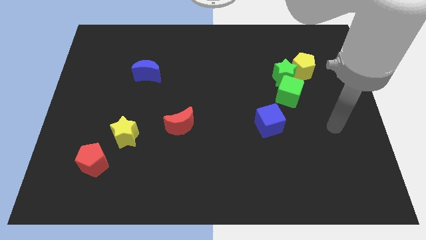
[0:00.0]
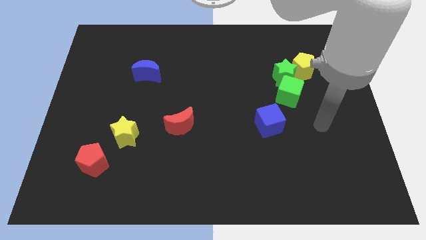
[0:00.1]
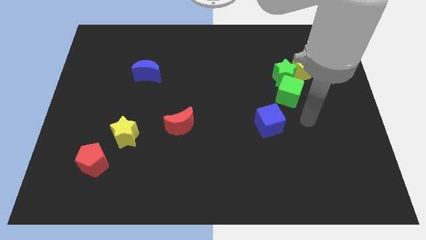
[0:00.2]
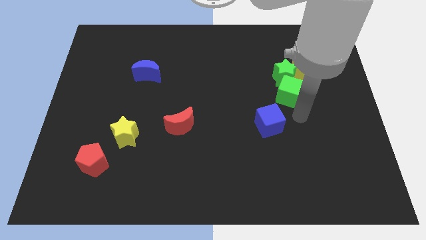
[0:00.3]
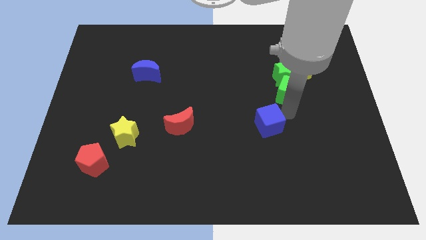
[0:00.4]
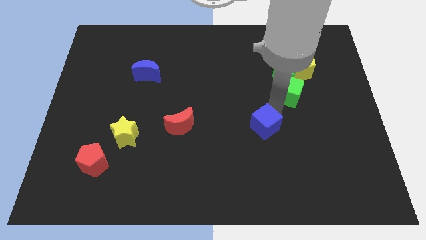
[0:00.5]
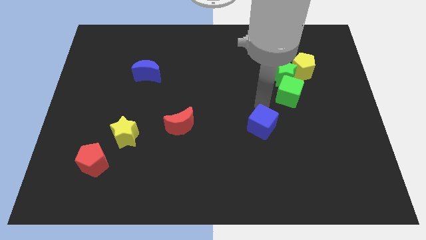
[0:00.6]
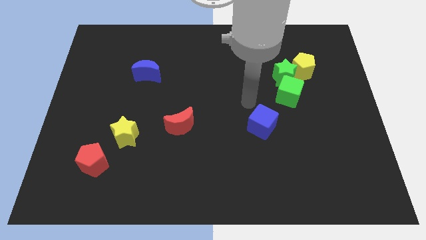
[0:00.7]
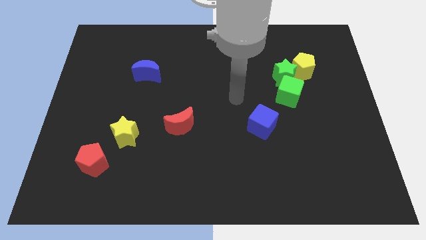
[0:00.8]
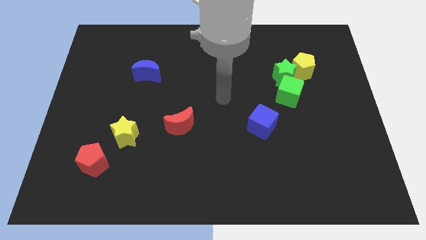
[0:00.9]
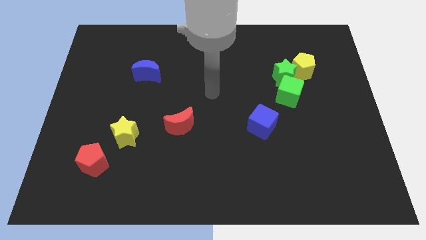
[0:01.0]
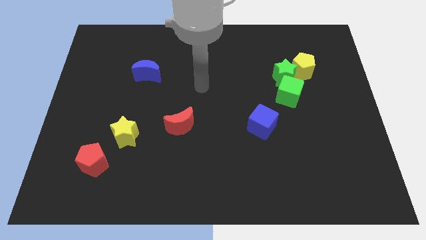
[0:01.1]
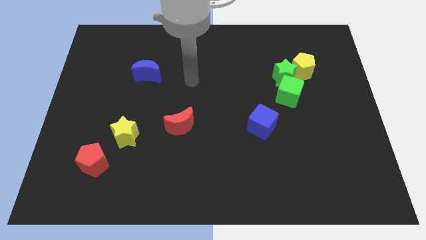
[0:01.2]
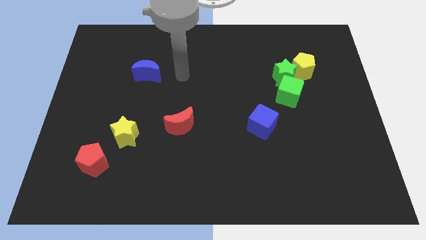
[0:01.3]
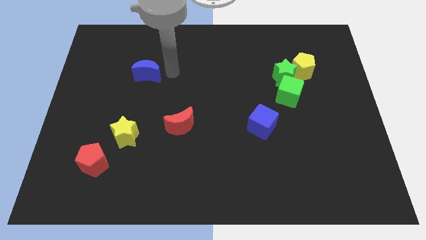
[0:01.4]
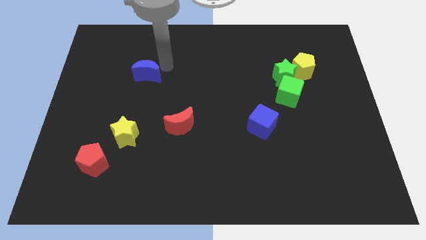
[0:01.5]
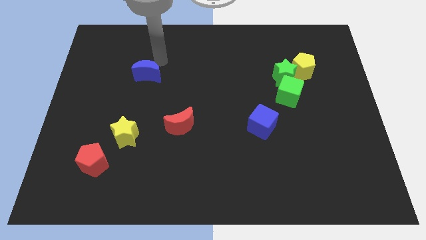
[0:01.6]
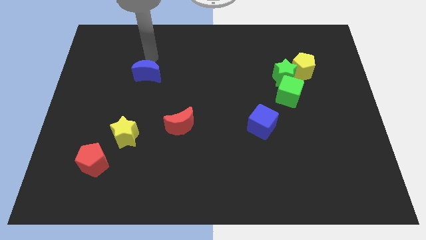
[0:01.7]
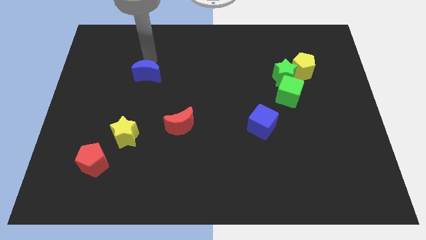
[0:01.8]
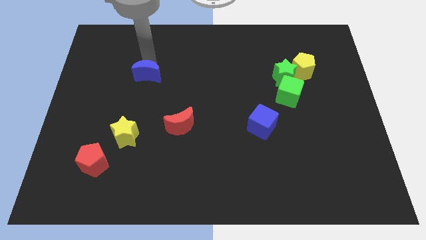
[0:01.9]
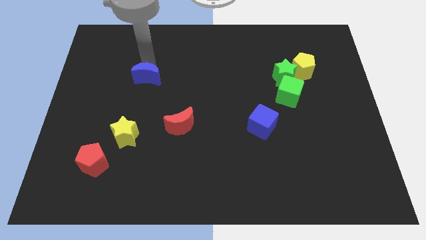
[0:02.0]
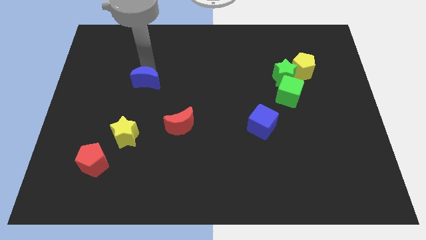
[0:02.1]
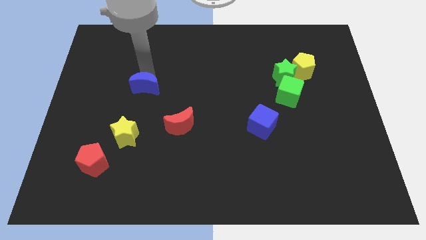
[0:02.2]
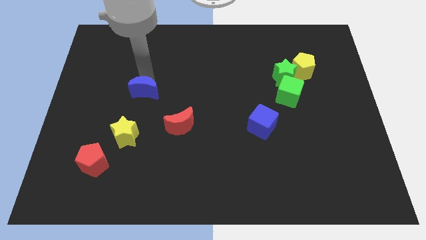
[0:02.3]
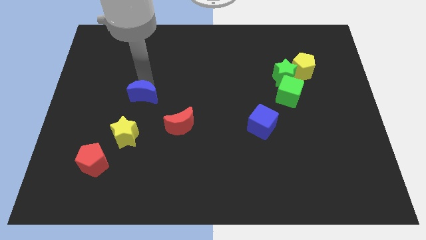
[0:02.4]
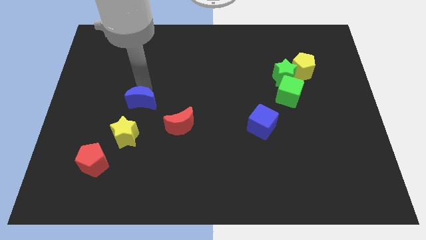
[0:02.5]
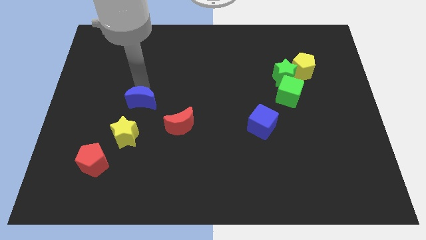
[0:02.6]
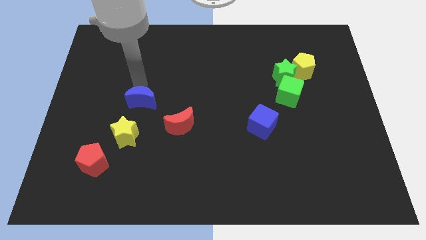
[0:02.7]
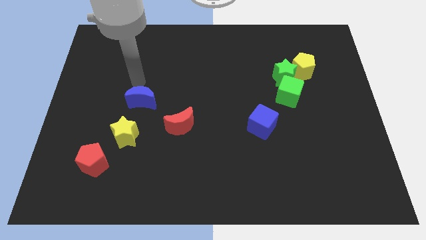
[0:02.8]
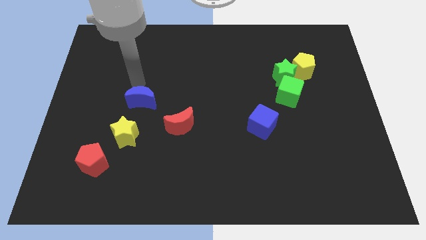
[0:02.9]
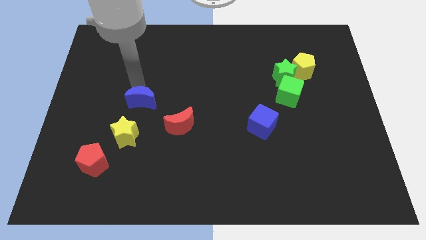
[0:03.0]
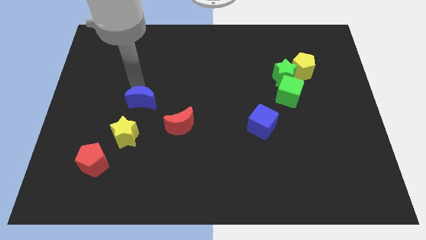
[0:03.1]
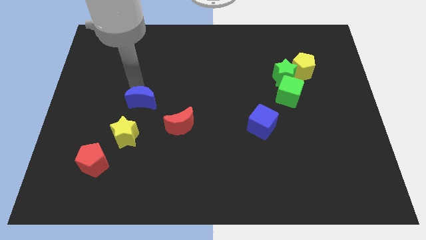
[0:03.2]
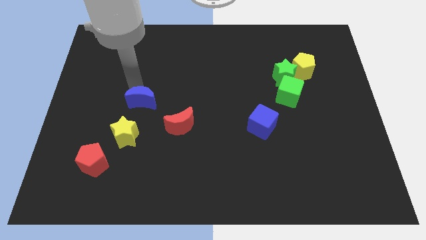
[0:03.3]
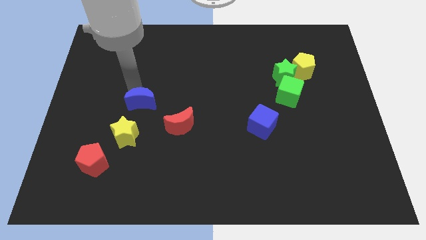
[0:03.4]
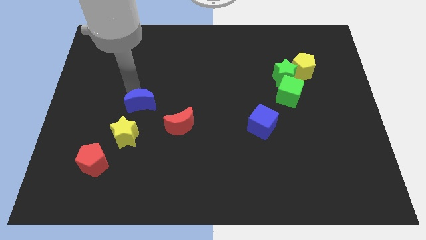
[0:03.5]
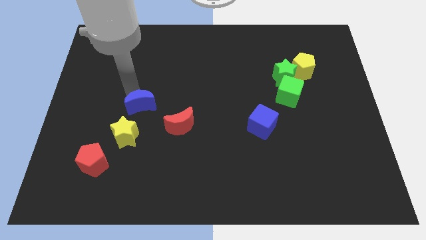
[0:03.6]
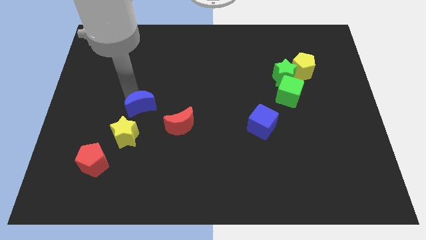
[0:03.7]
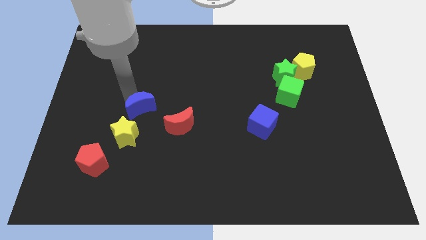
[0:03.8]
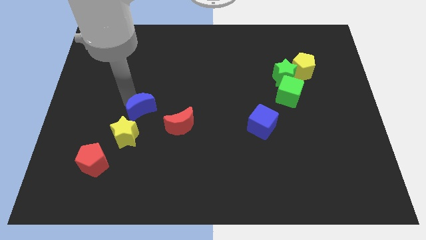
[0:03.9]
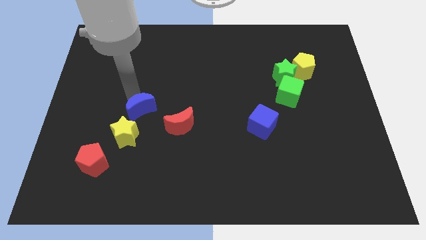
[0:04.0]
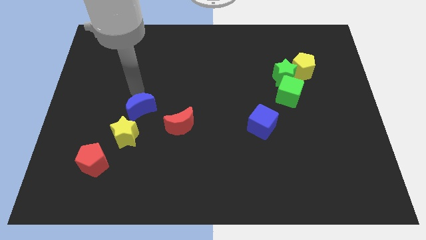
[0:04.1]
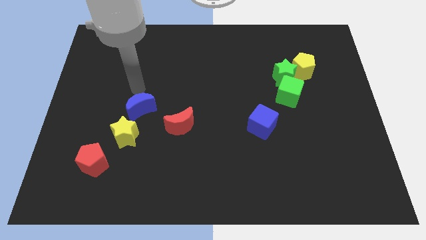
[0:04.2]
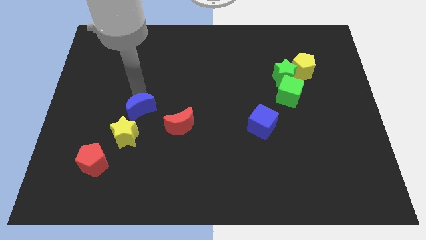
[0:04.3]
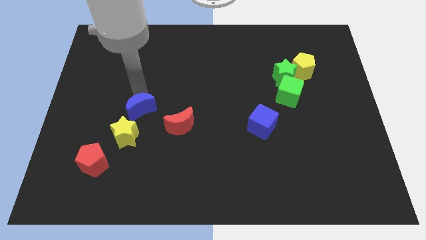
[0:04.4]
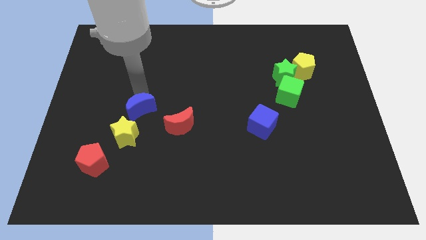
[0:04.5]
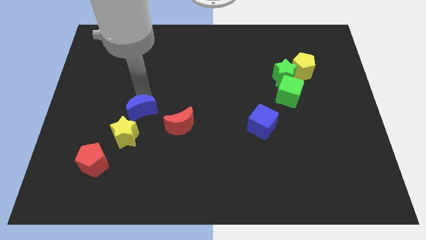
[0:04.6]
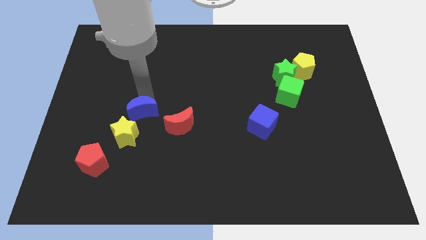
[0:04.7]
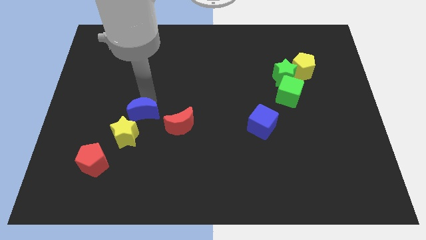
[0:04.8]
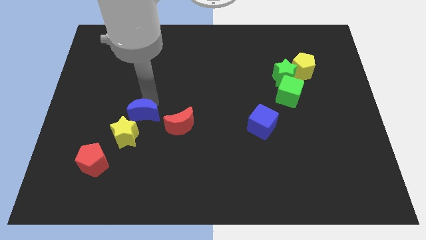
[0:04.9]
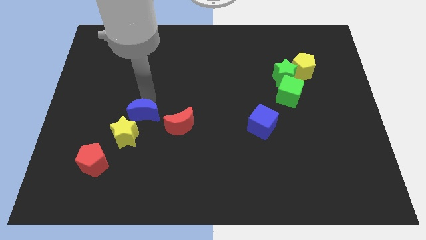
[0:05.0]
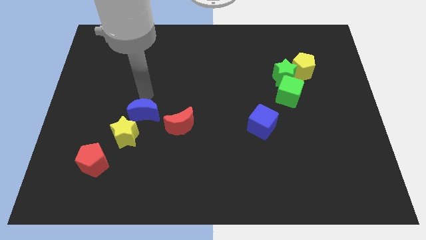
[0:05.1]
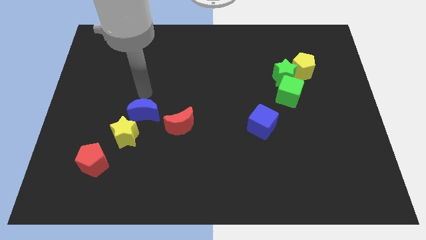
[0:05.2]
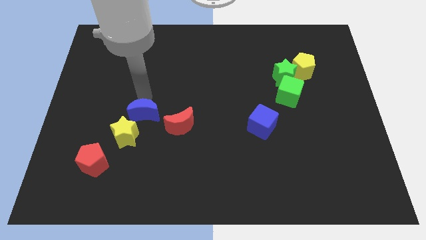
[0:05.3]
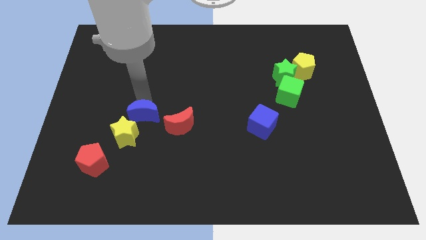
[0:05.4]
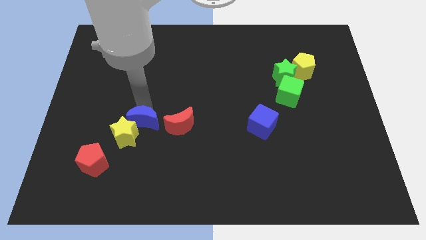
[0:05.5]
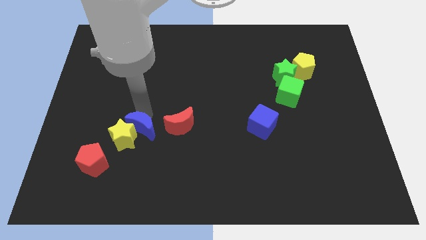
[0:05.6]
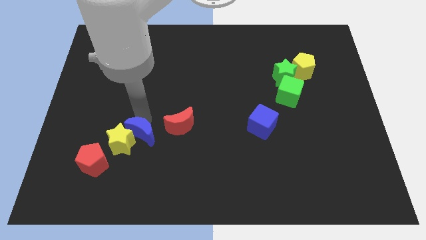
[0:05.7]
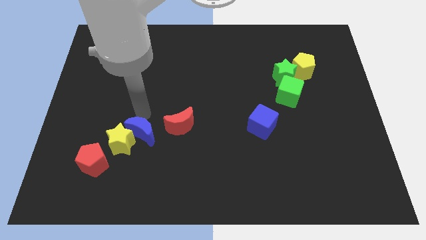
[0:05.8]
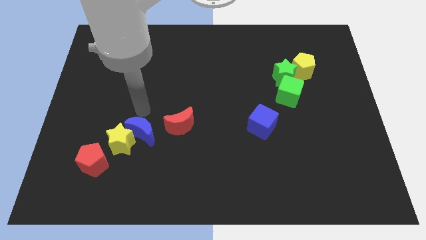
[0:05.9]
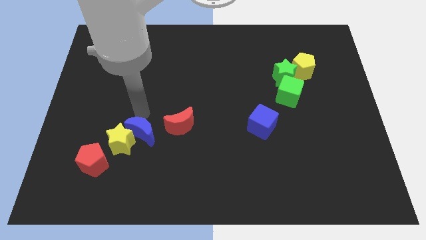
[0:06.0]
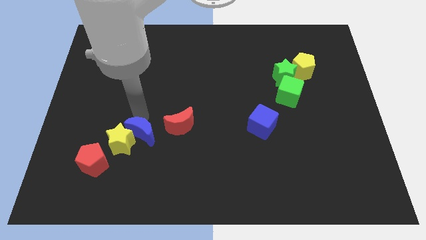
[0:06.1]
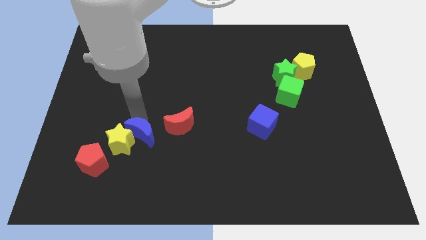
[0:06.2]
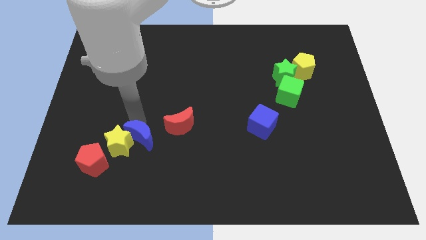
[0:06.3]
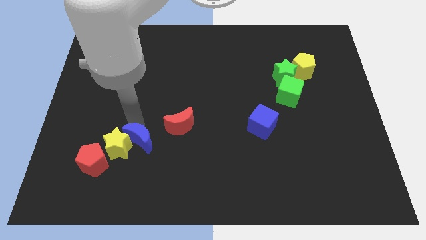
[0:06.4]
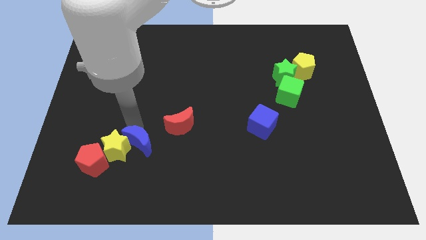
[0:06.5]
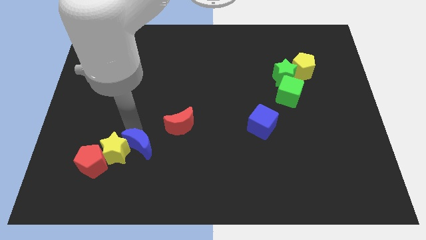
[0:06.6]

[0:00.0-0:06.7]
put the blue moon just right of the red pentagon
